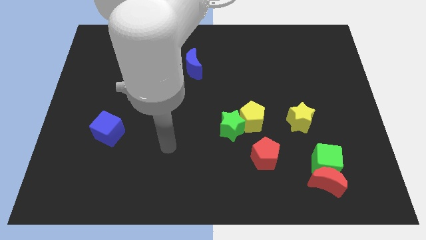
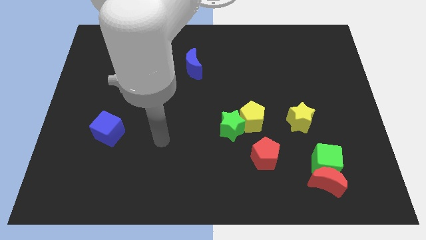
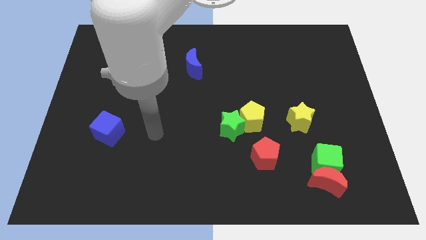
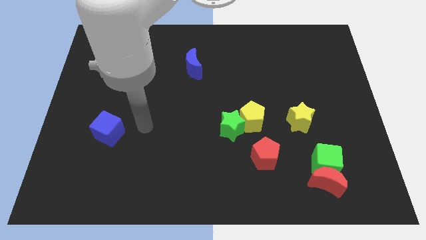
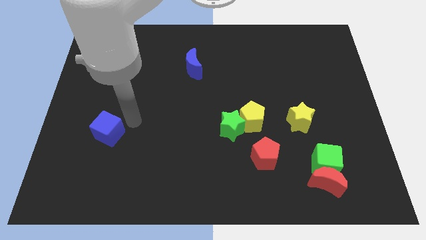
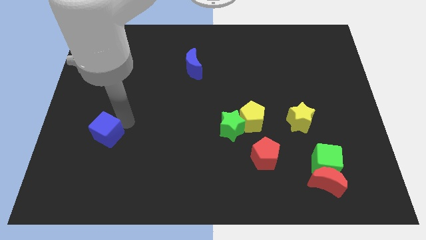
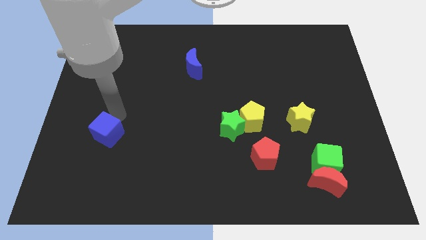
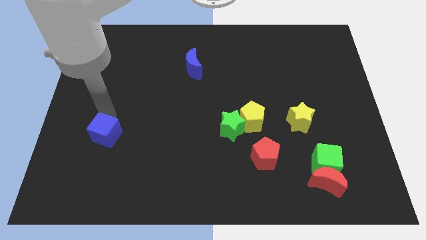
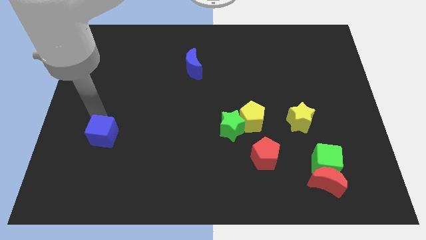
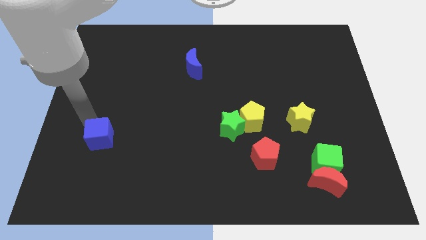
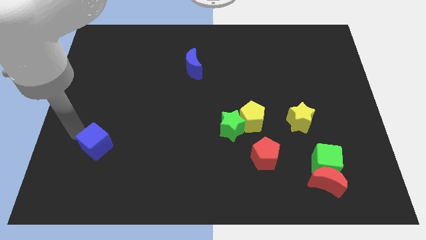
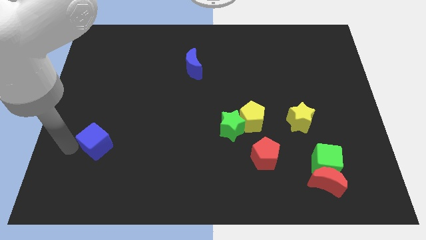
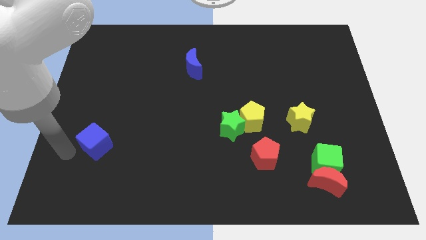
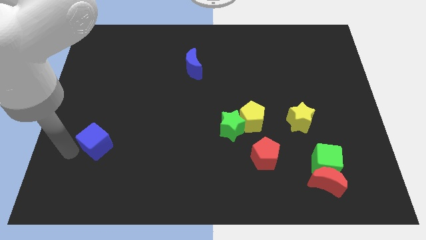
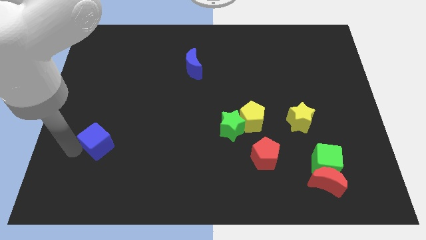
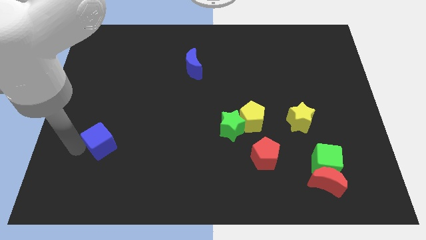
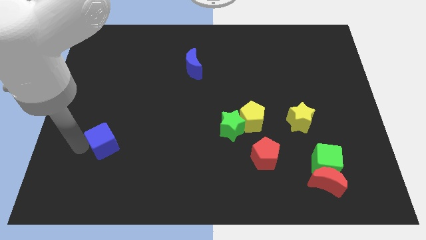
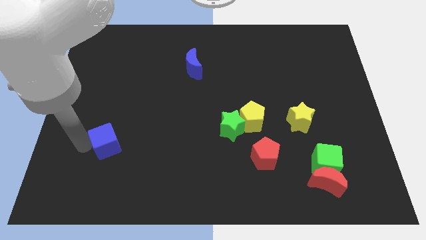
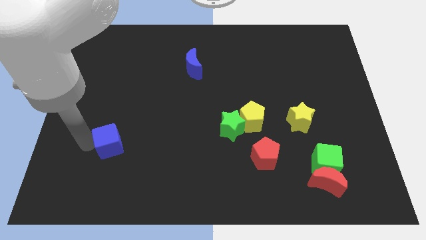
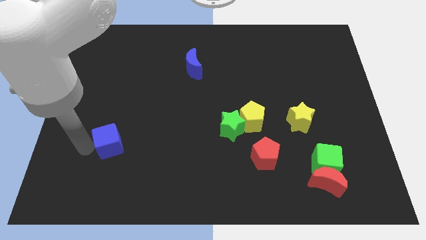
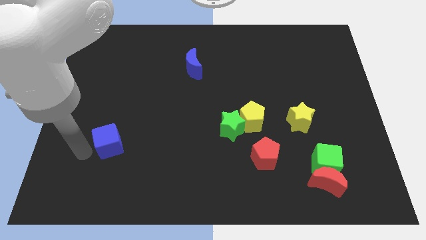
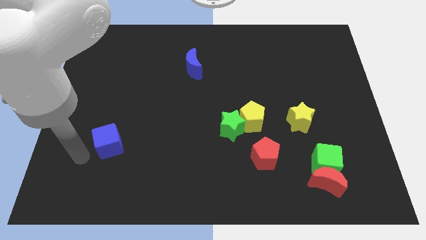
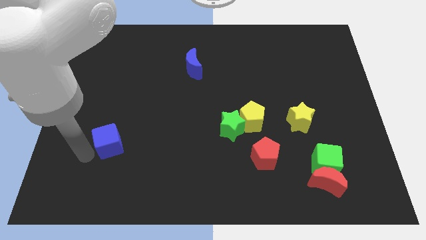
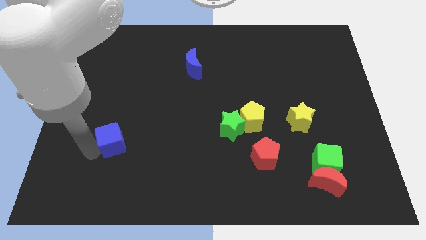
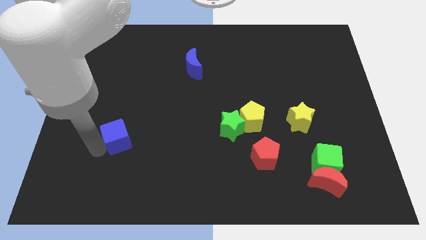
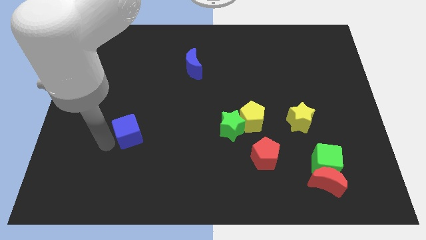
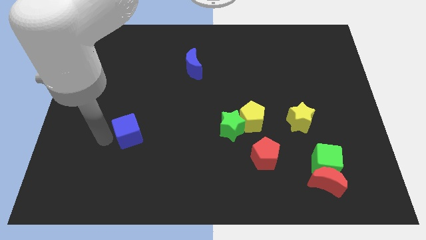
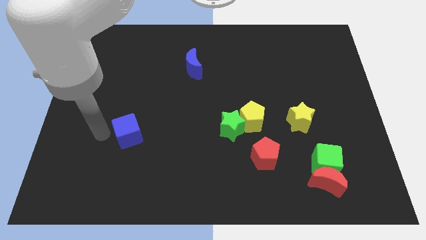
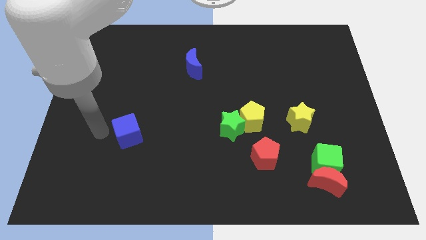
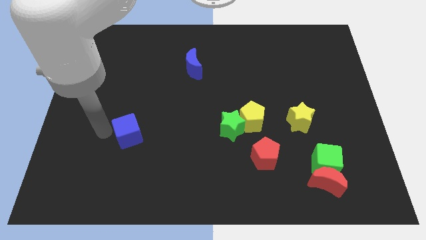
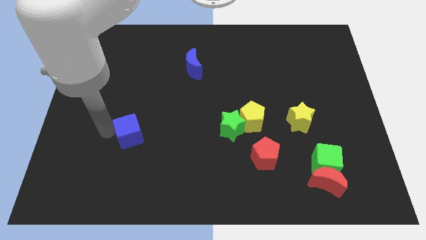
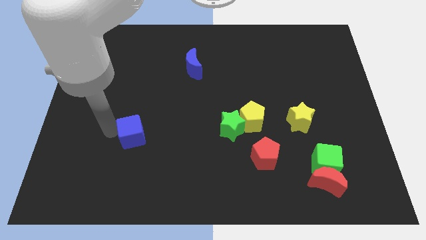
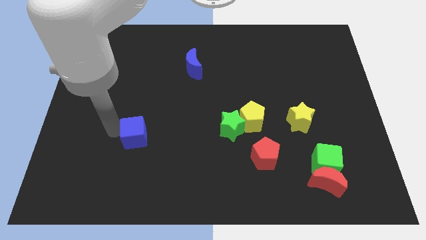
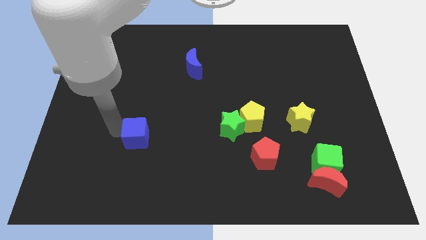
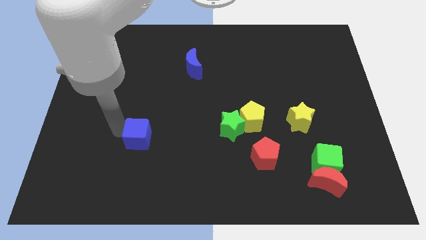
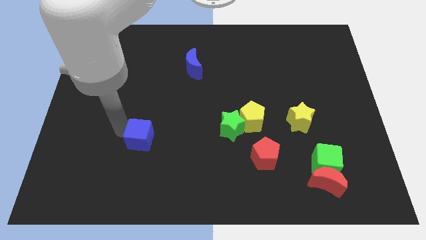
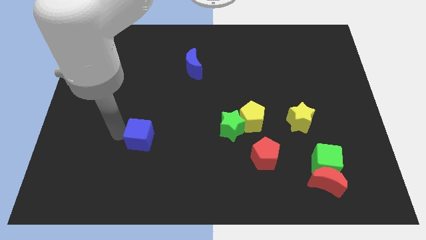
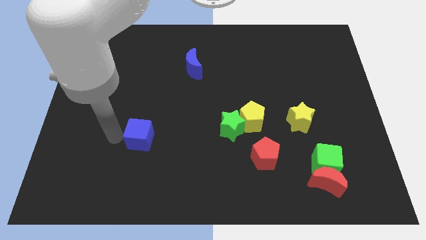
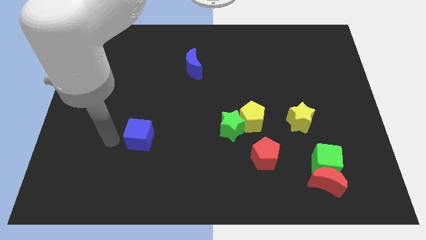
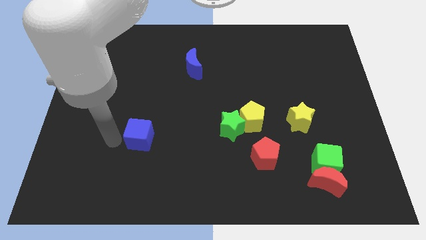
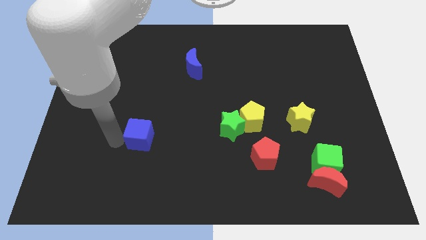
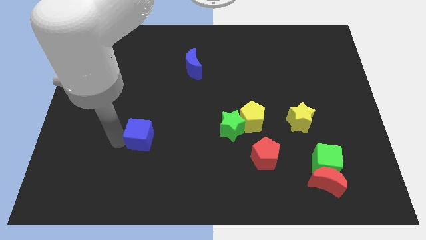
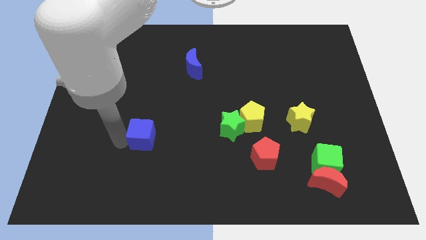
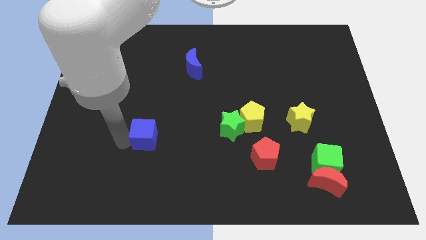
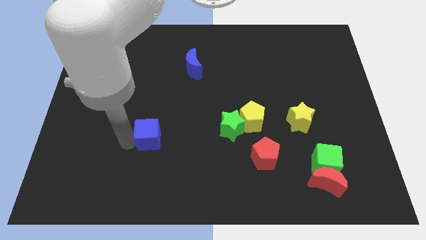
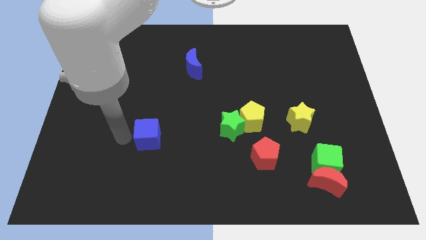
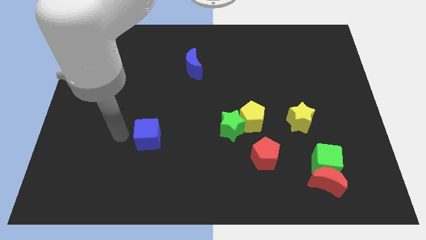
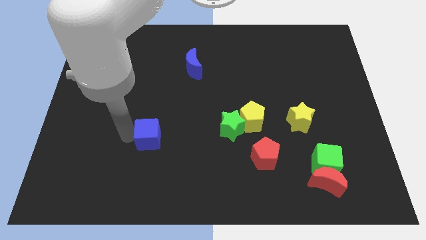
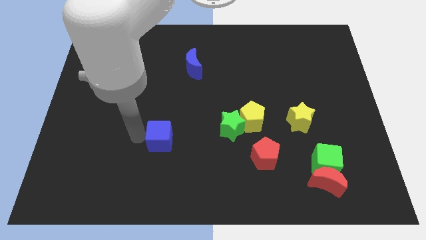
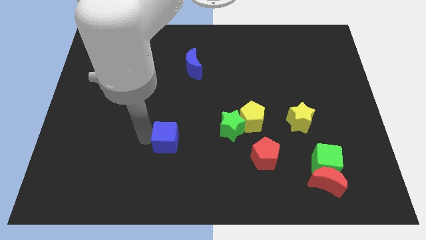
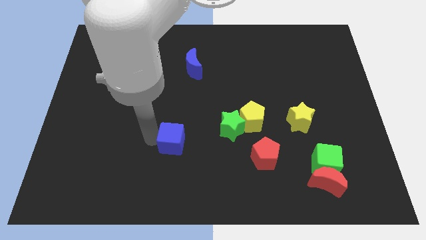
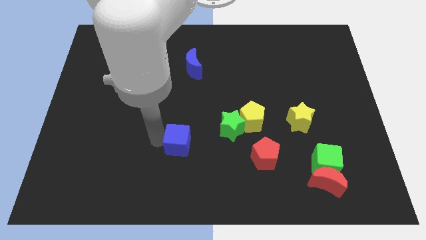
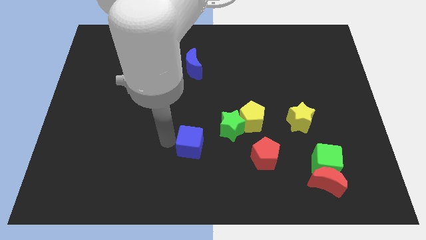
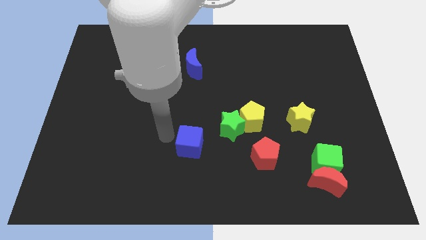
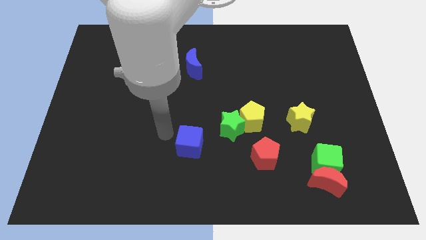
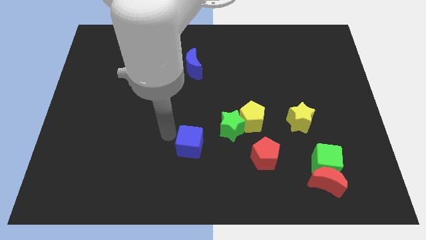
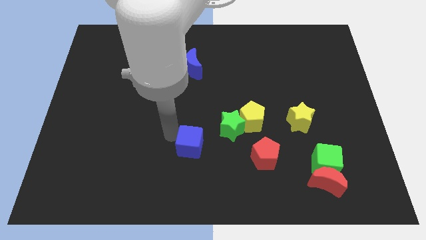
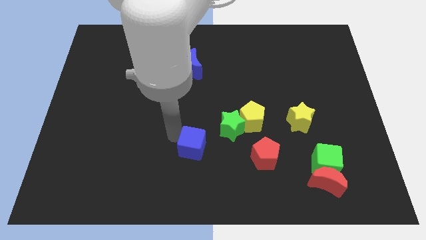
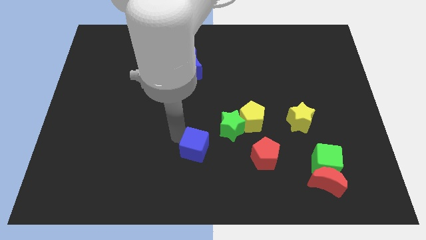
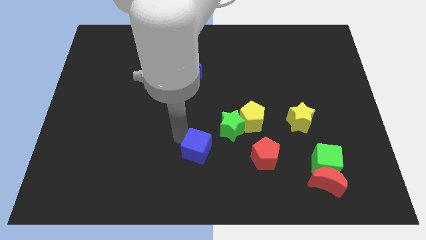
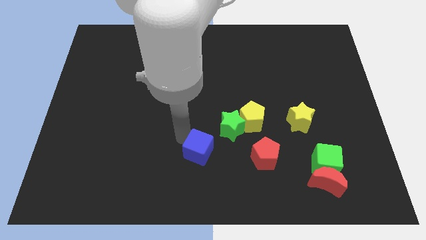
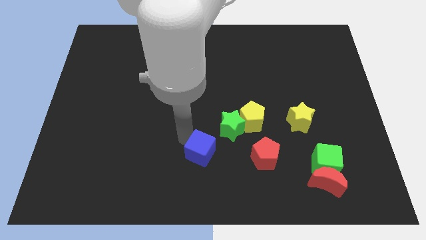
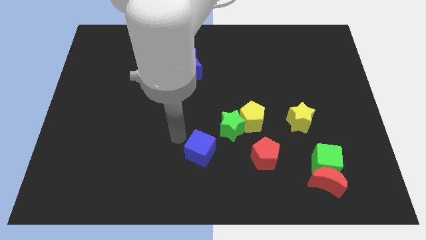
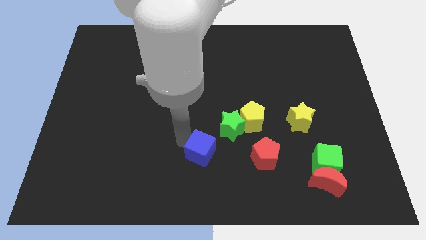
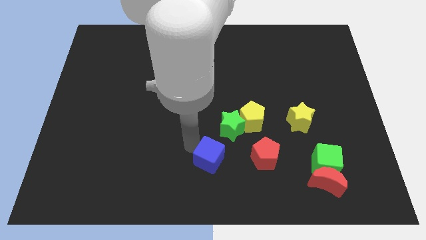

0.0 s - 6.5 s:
slide the blue cube to the bottom of the green star
